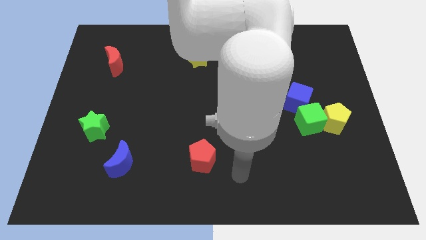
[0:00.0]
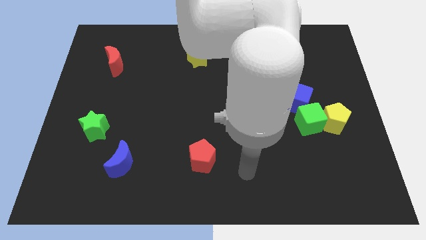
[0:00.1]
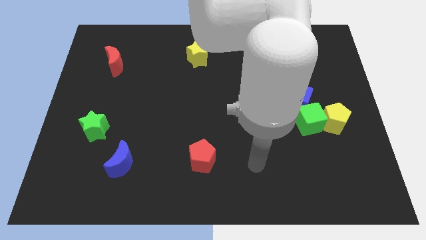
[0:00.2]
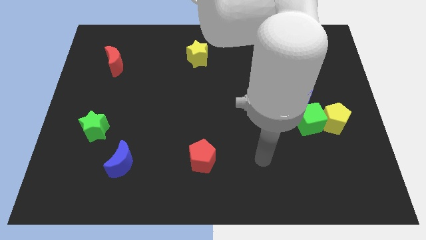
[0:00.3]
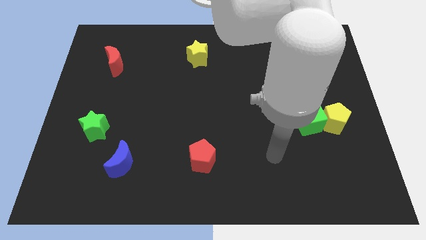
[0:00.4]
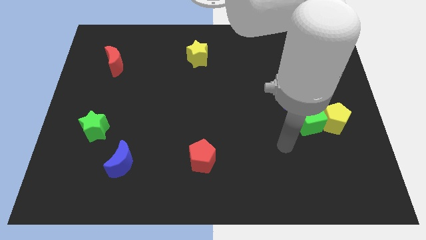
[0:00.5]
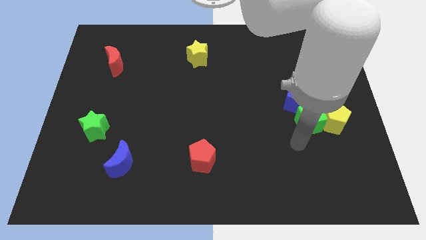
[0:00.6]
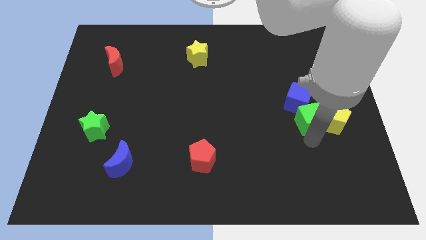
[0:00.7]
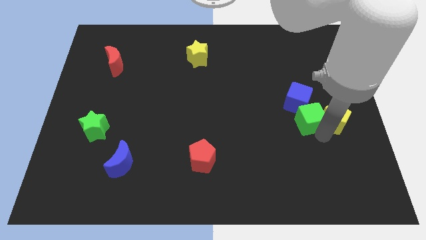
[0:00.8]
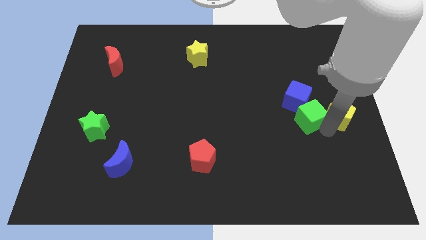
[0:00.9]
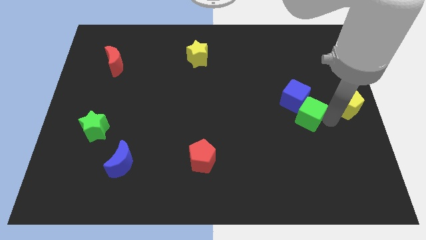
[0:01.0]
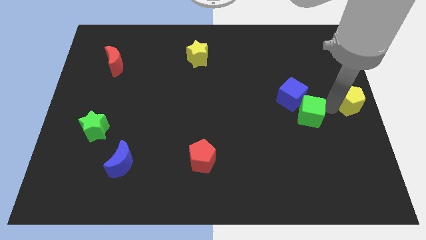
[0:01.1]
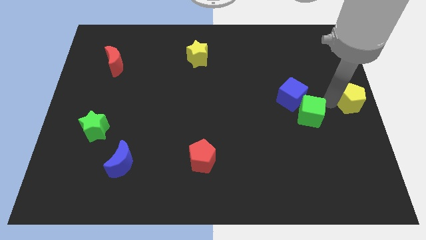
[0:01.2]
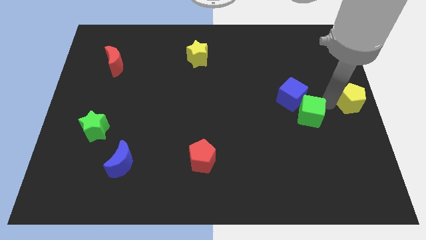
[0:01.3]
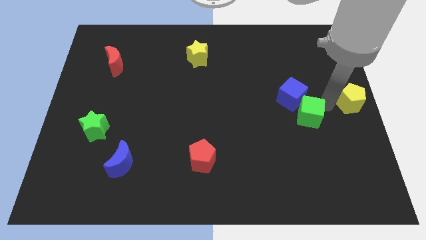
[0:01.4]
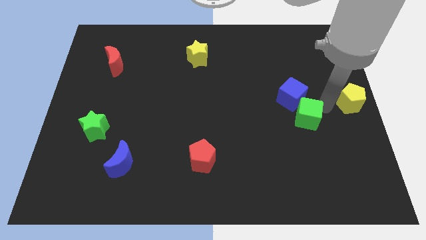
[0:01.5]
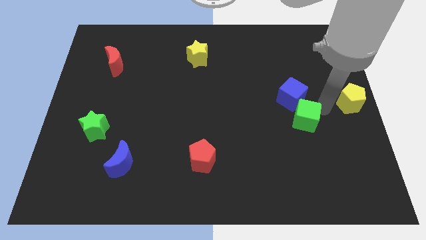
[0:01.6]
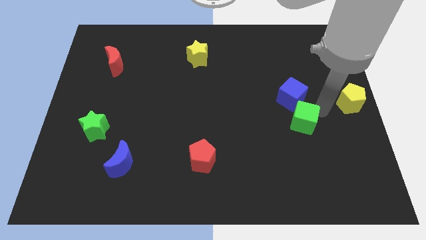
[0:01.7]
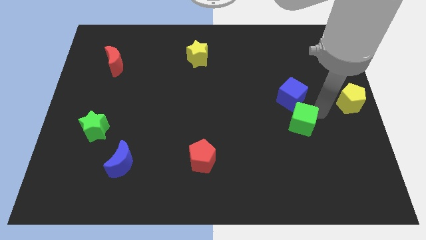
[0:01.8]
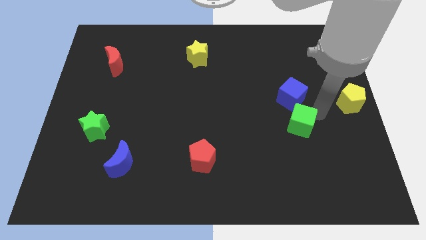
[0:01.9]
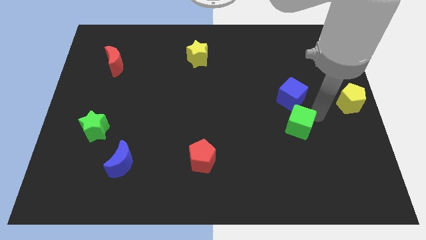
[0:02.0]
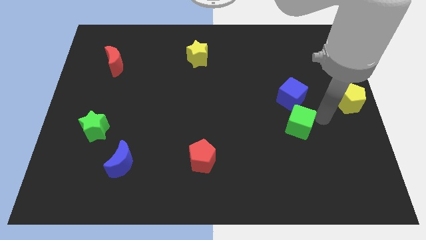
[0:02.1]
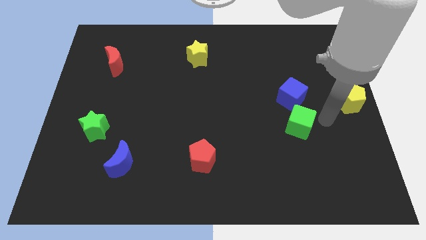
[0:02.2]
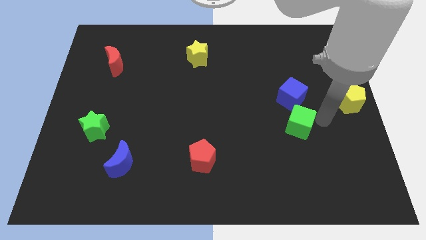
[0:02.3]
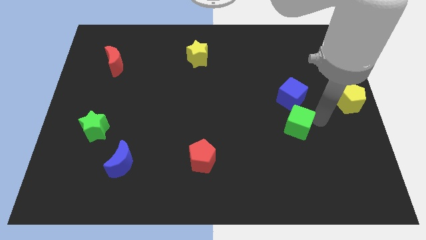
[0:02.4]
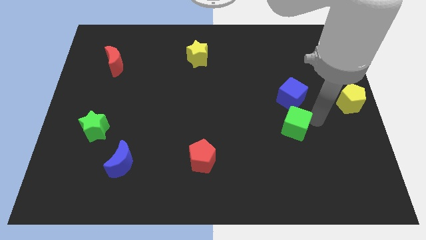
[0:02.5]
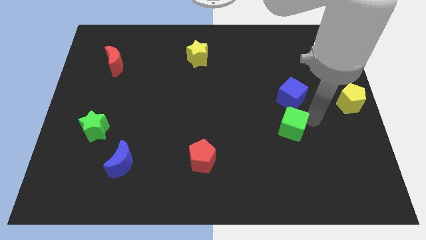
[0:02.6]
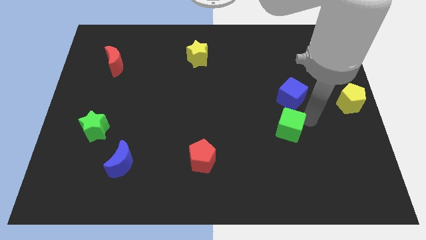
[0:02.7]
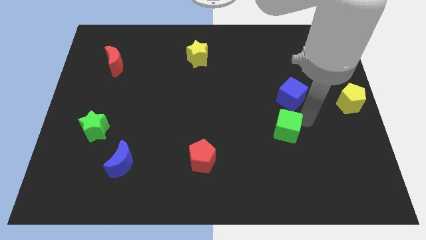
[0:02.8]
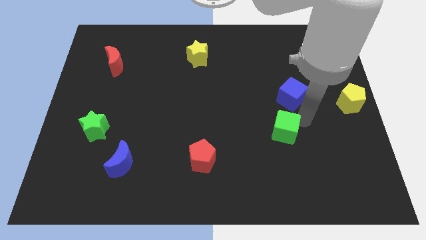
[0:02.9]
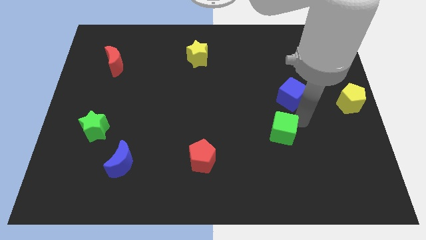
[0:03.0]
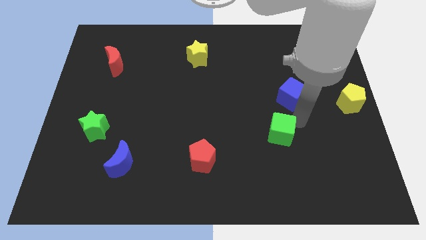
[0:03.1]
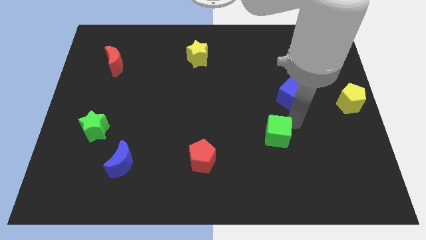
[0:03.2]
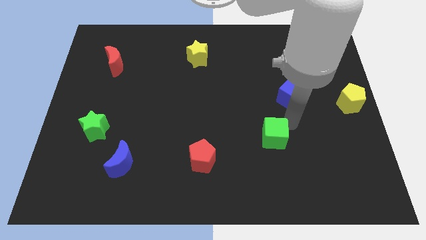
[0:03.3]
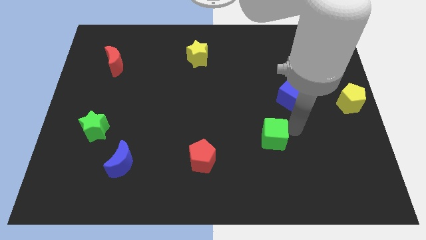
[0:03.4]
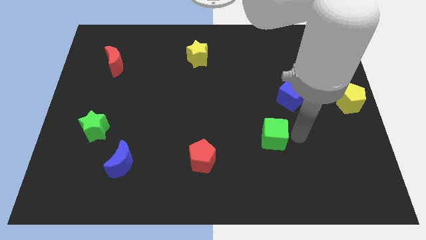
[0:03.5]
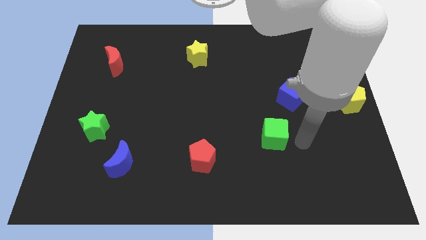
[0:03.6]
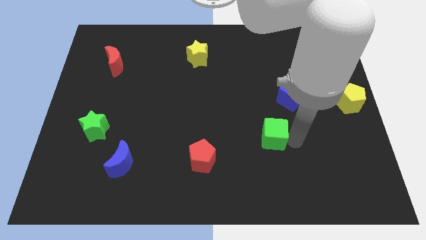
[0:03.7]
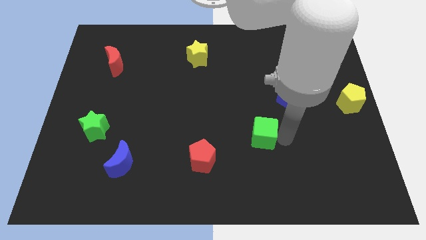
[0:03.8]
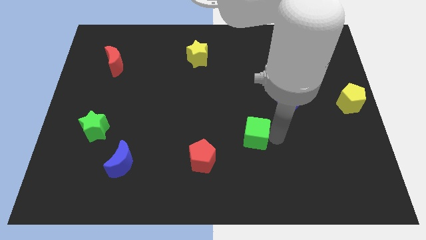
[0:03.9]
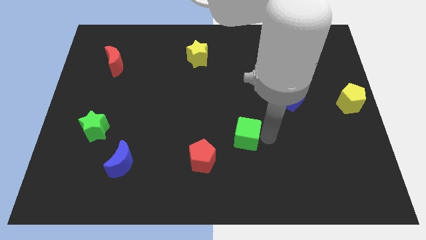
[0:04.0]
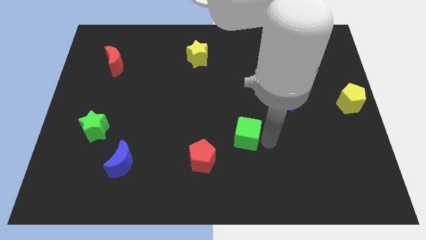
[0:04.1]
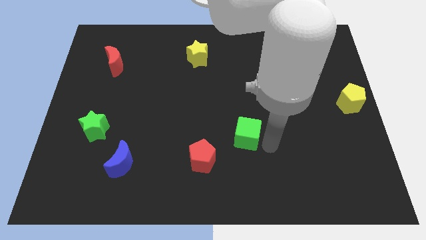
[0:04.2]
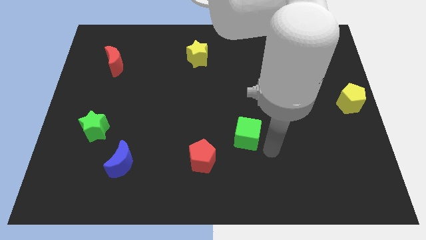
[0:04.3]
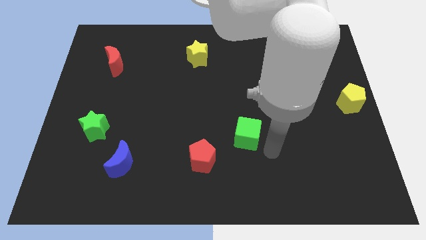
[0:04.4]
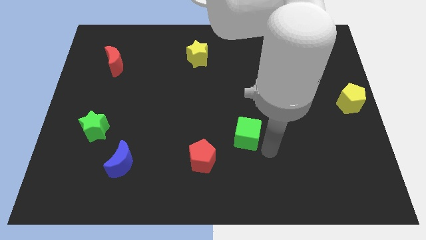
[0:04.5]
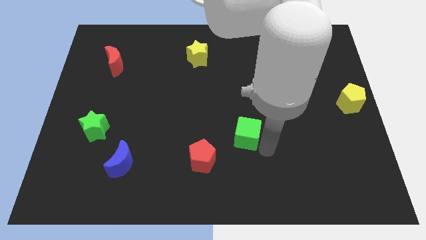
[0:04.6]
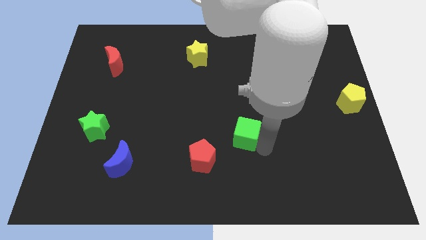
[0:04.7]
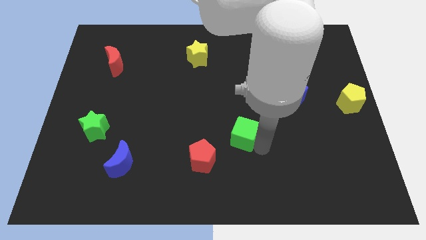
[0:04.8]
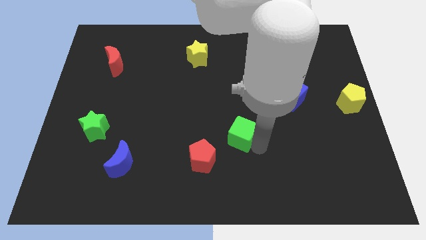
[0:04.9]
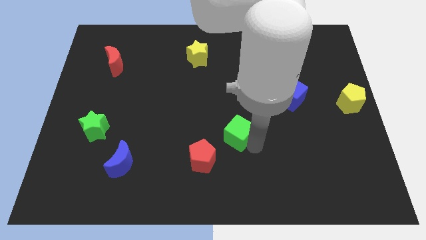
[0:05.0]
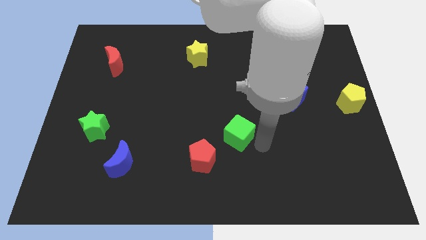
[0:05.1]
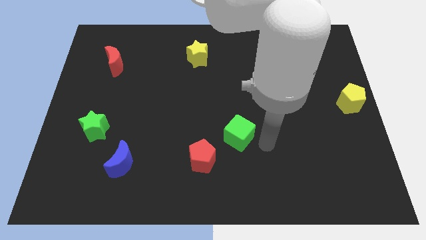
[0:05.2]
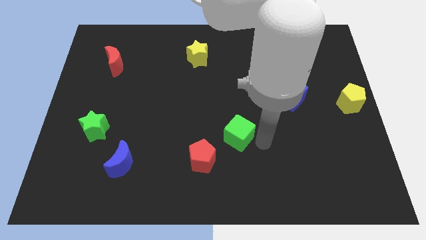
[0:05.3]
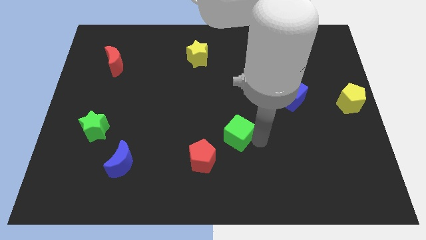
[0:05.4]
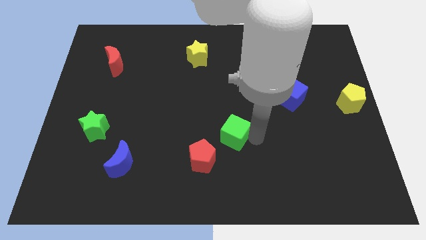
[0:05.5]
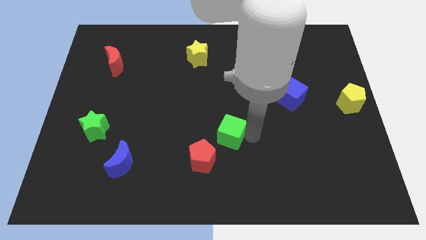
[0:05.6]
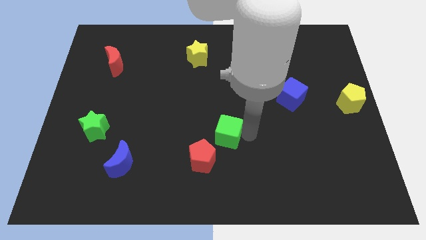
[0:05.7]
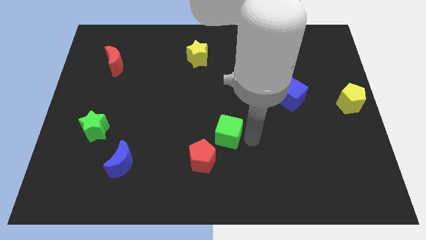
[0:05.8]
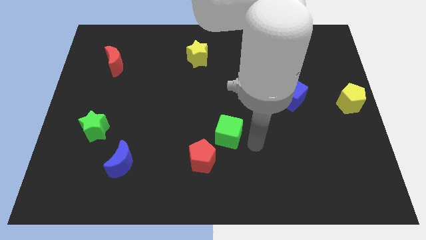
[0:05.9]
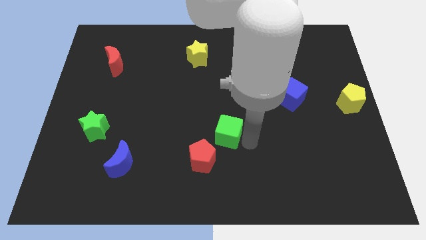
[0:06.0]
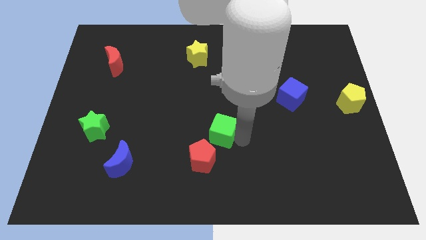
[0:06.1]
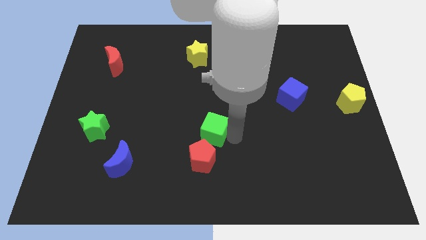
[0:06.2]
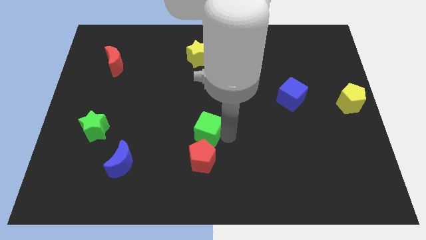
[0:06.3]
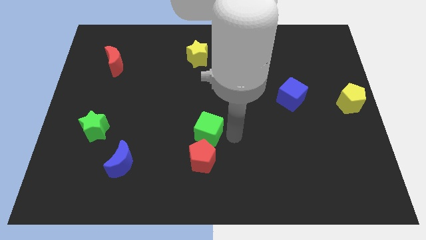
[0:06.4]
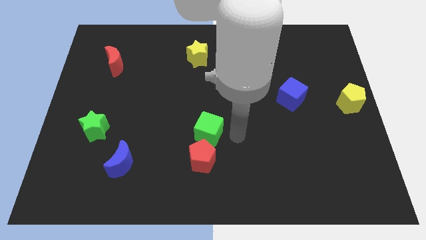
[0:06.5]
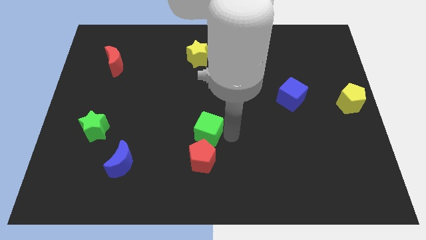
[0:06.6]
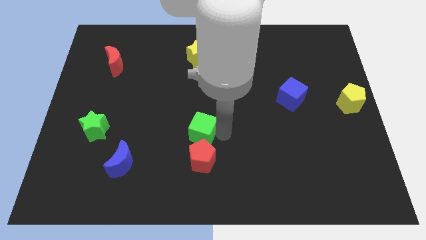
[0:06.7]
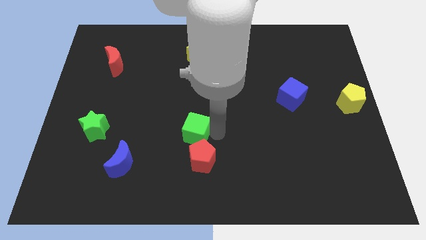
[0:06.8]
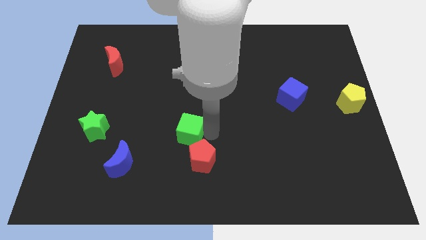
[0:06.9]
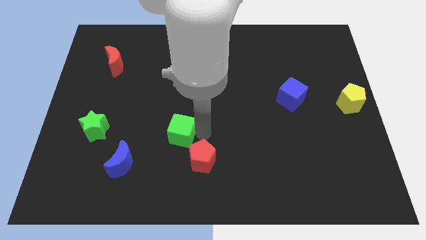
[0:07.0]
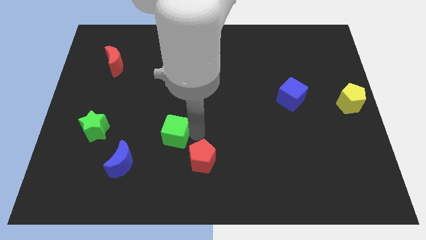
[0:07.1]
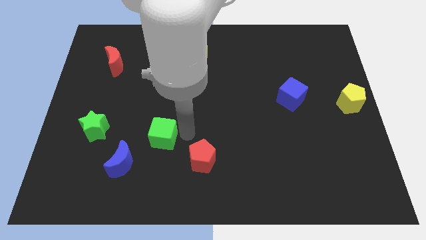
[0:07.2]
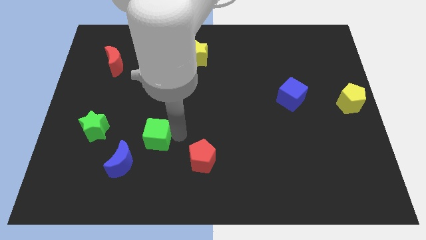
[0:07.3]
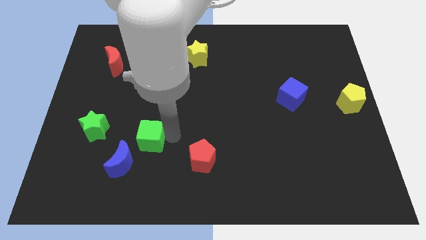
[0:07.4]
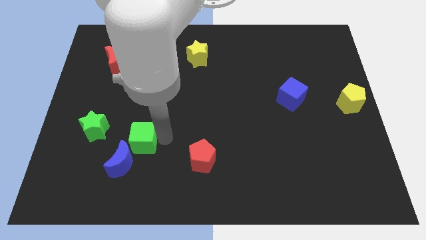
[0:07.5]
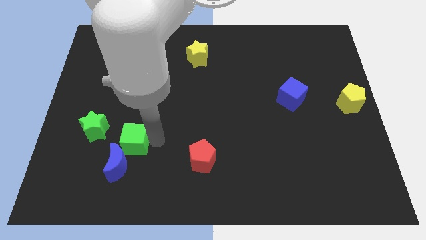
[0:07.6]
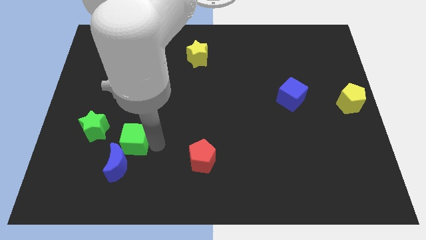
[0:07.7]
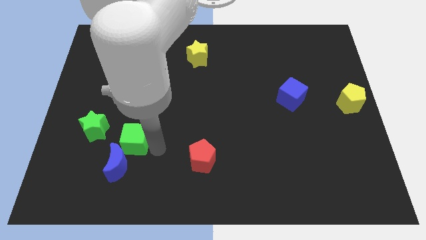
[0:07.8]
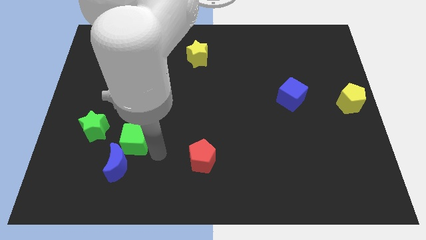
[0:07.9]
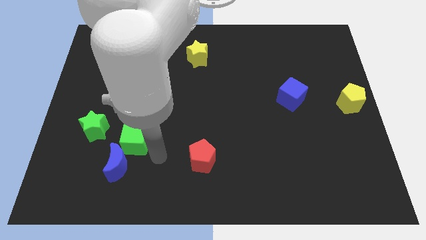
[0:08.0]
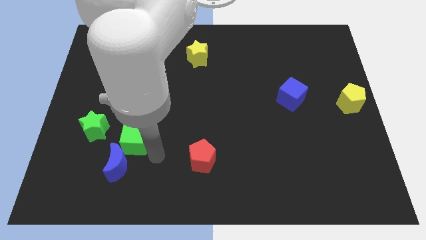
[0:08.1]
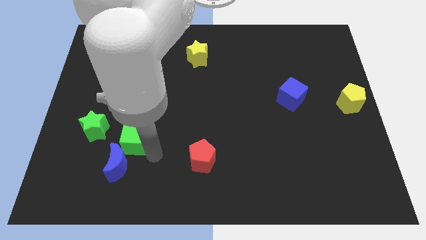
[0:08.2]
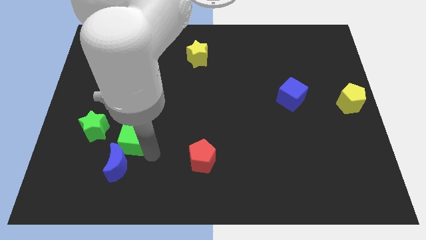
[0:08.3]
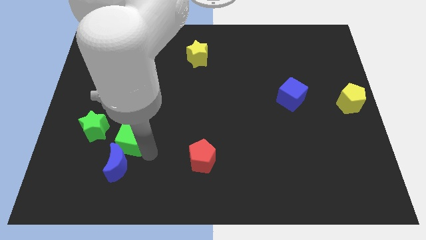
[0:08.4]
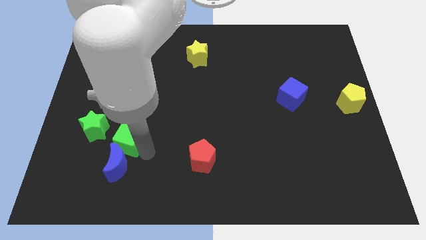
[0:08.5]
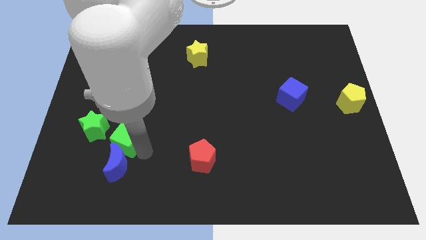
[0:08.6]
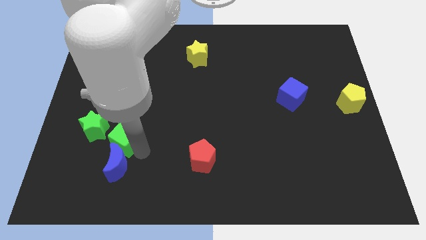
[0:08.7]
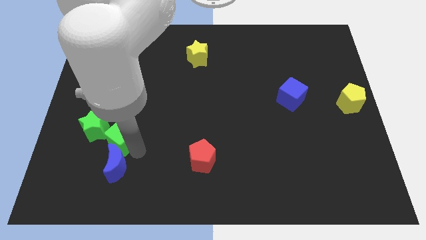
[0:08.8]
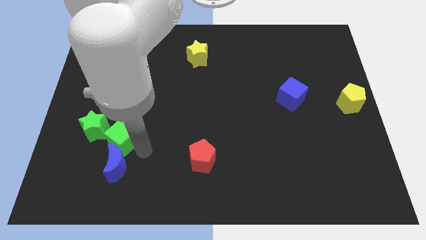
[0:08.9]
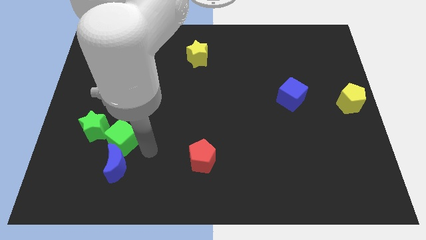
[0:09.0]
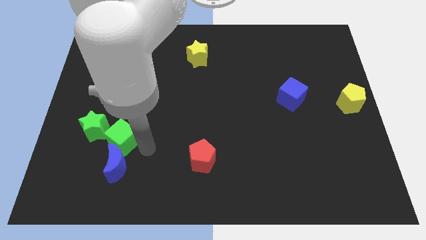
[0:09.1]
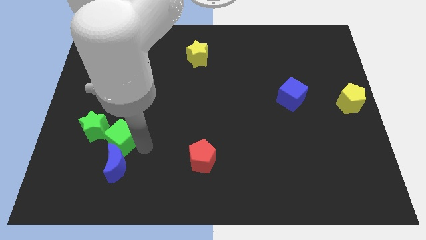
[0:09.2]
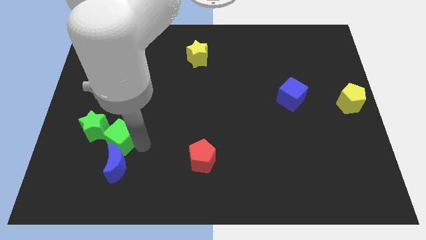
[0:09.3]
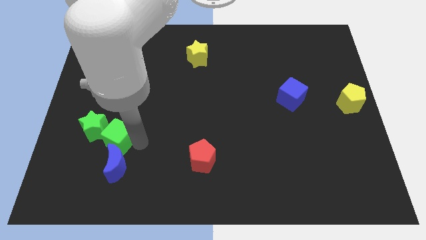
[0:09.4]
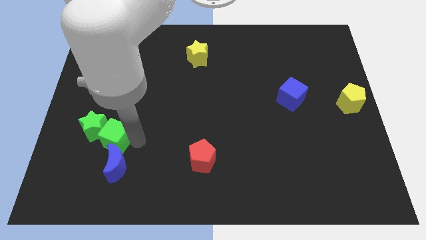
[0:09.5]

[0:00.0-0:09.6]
move the green cube towards the green star
